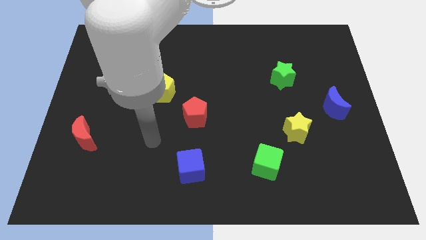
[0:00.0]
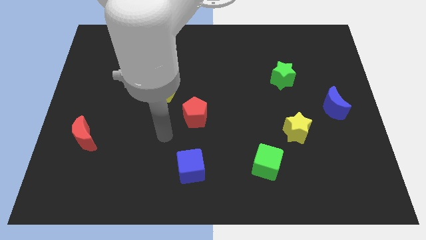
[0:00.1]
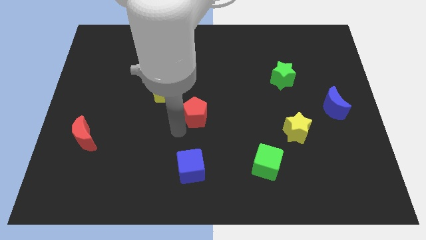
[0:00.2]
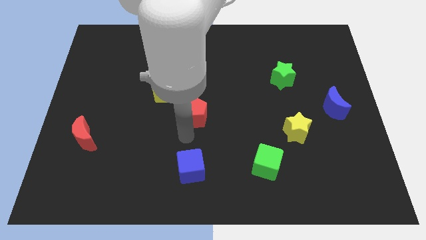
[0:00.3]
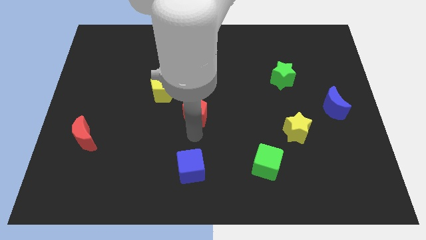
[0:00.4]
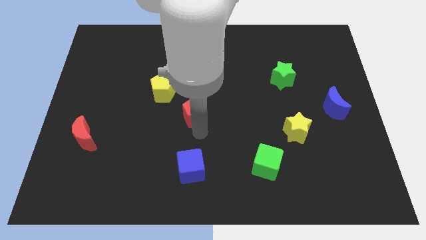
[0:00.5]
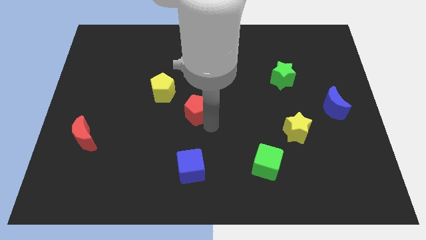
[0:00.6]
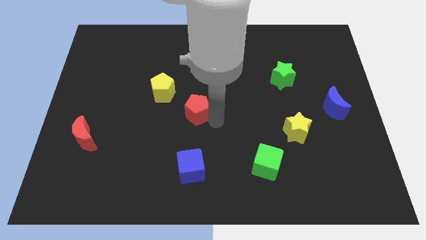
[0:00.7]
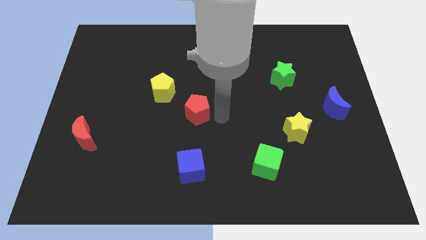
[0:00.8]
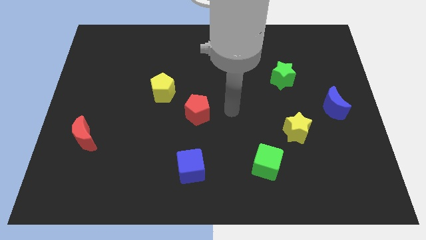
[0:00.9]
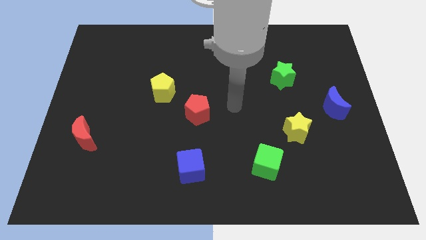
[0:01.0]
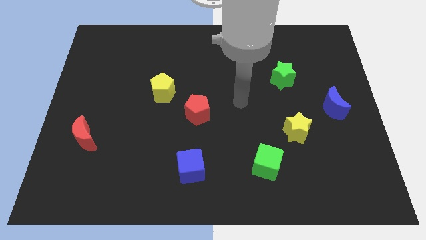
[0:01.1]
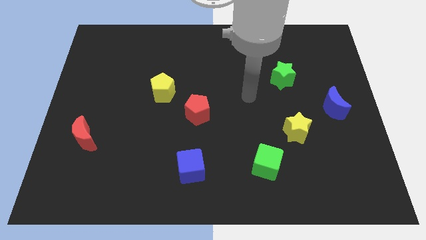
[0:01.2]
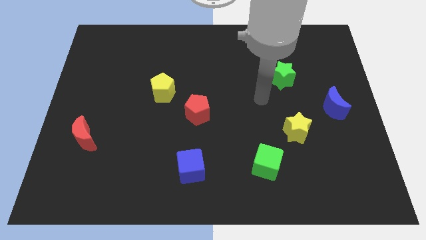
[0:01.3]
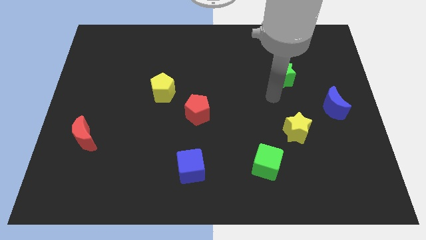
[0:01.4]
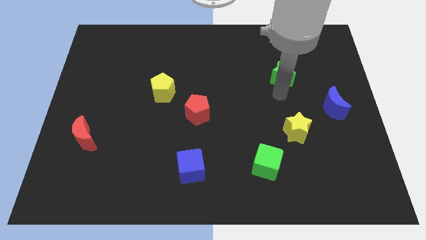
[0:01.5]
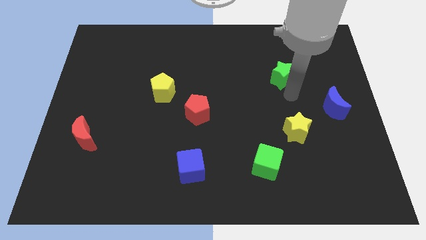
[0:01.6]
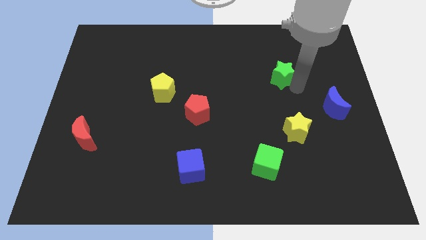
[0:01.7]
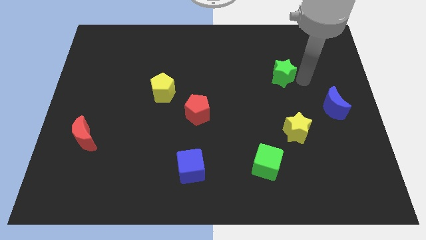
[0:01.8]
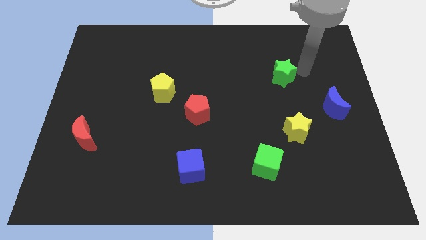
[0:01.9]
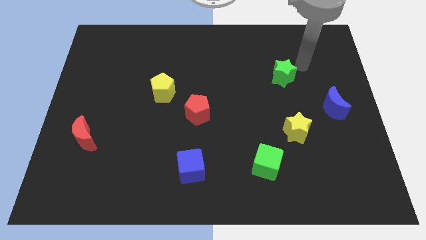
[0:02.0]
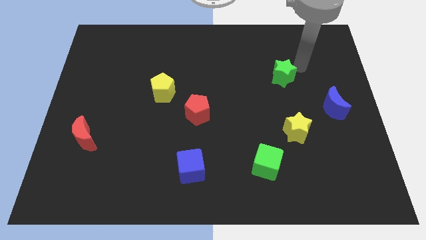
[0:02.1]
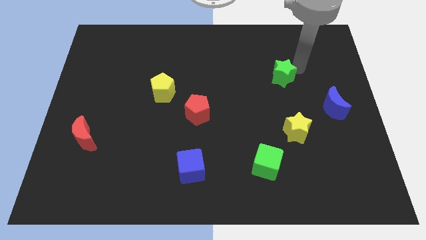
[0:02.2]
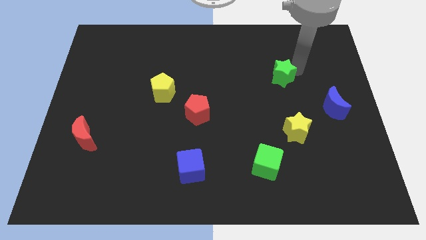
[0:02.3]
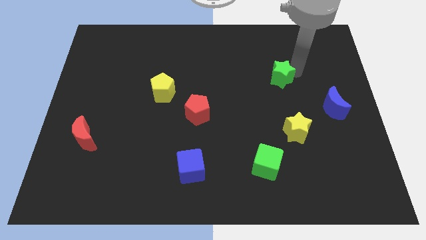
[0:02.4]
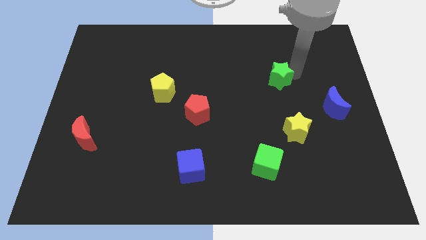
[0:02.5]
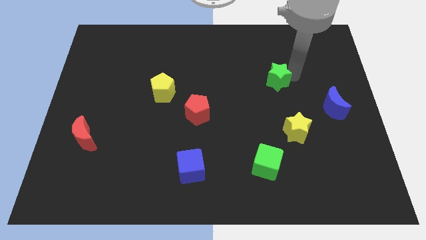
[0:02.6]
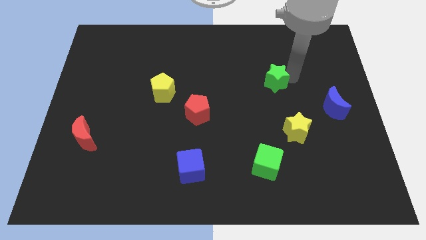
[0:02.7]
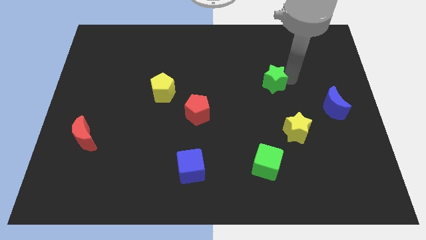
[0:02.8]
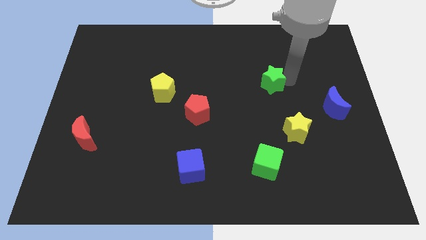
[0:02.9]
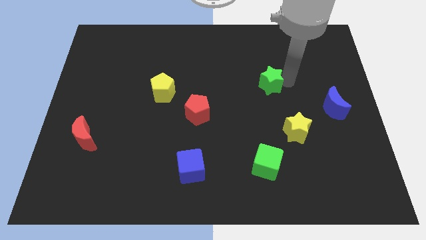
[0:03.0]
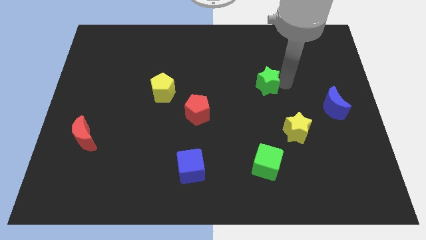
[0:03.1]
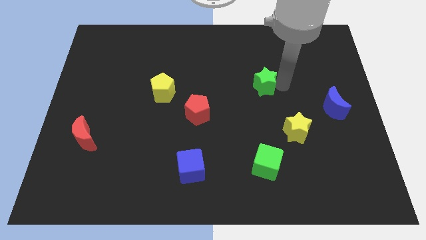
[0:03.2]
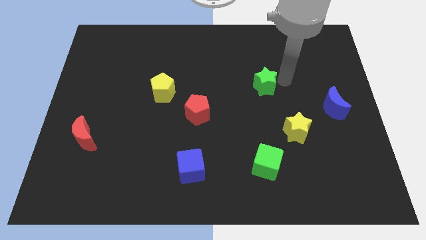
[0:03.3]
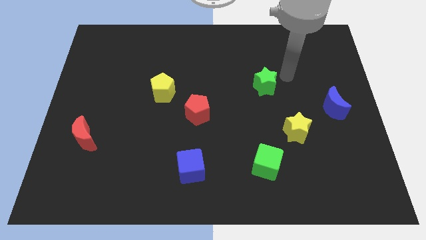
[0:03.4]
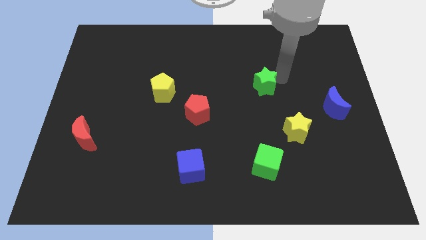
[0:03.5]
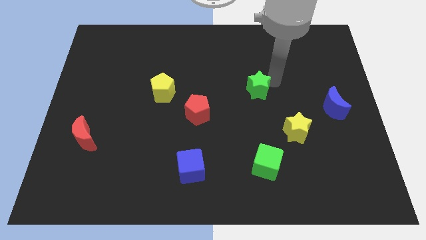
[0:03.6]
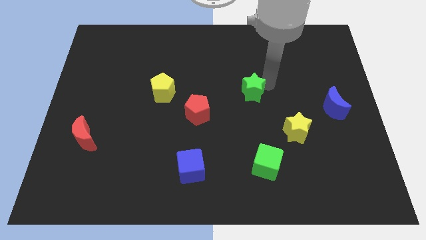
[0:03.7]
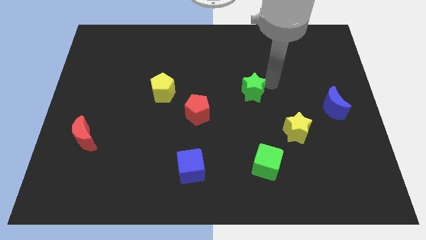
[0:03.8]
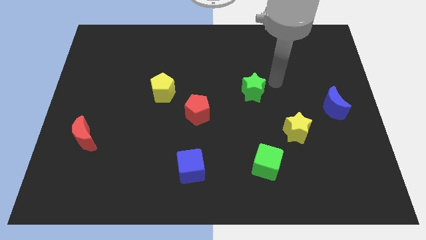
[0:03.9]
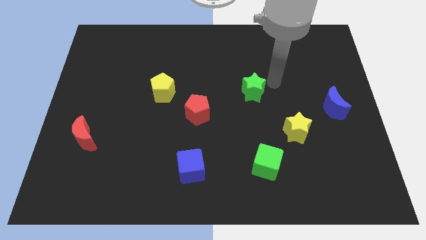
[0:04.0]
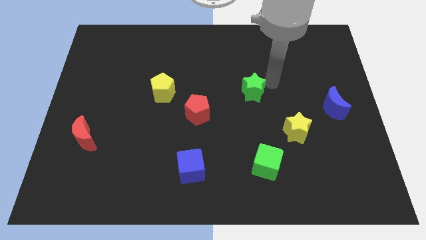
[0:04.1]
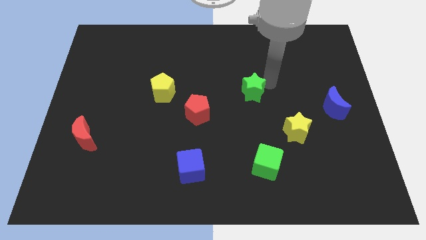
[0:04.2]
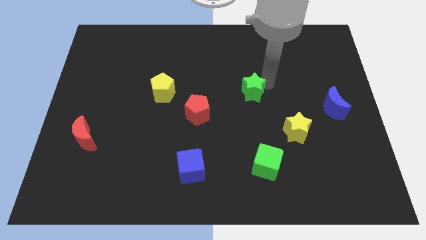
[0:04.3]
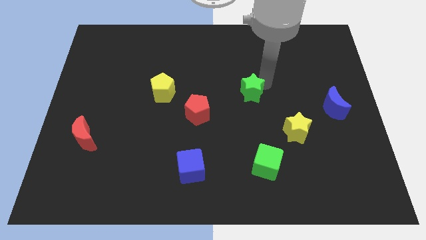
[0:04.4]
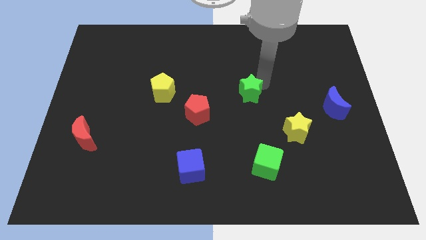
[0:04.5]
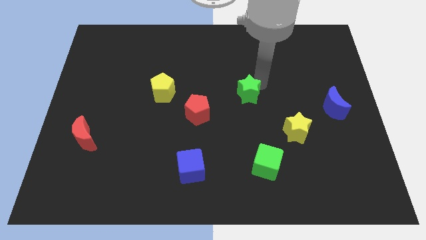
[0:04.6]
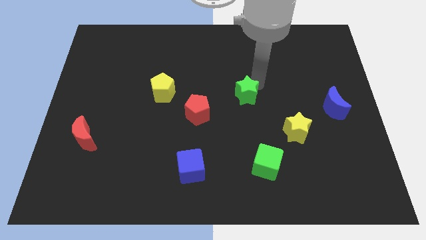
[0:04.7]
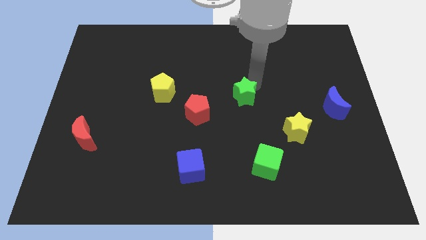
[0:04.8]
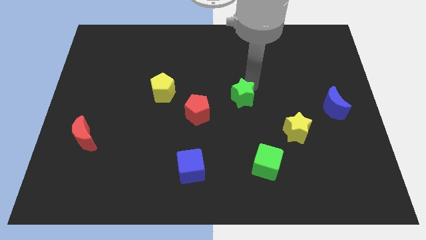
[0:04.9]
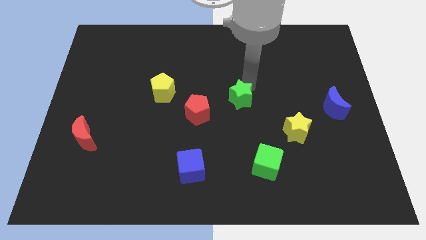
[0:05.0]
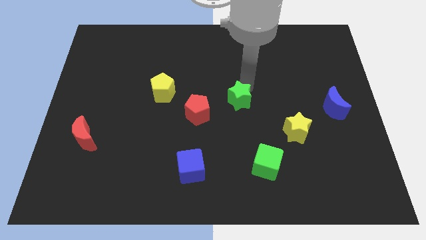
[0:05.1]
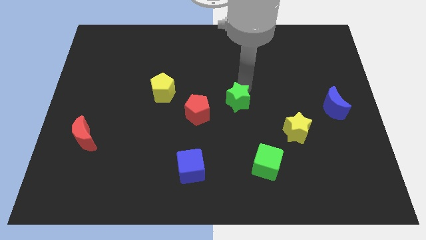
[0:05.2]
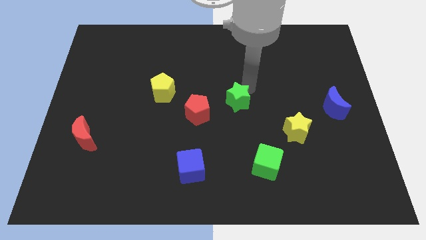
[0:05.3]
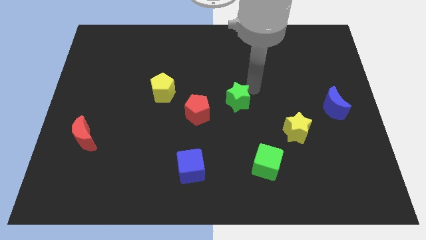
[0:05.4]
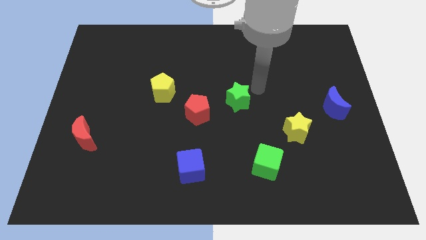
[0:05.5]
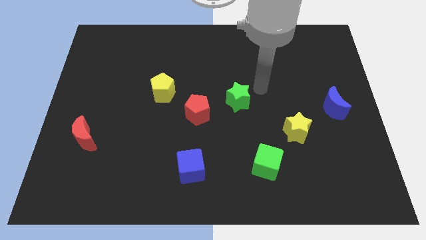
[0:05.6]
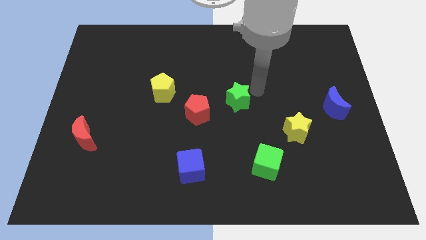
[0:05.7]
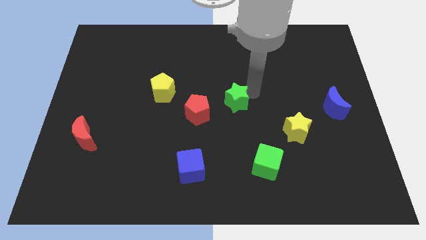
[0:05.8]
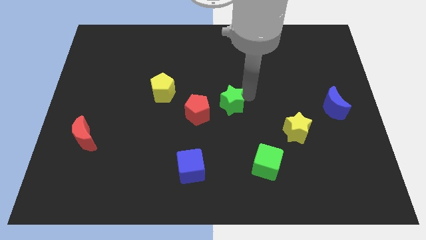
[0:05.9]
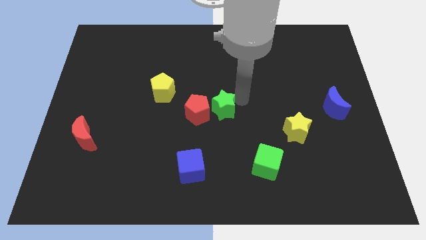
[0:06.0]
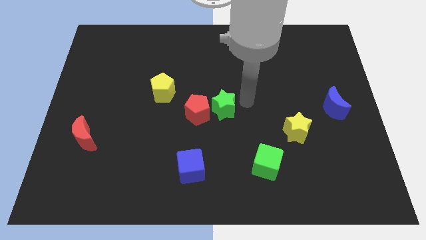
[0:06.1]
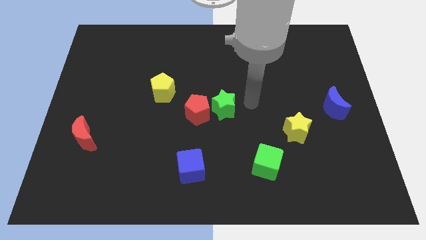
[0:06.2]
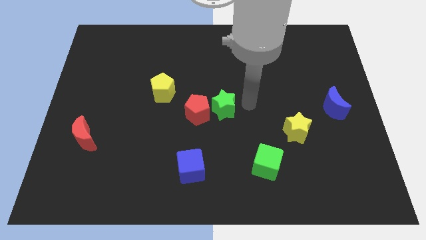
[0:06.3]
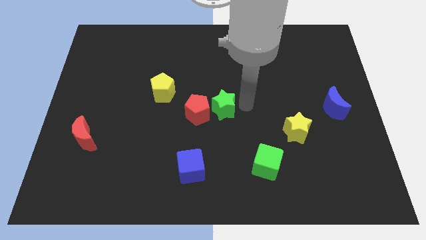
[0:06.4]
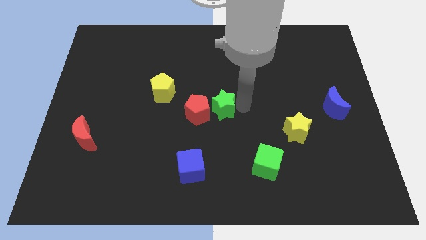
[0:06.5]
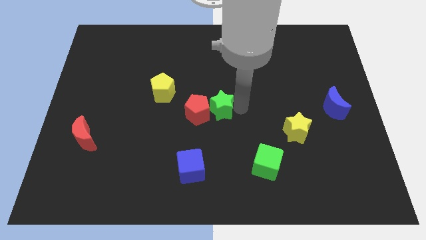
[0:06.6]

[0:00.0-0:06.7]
slide the green star to the red pentagon

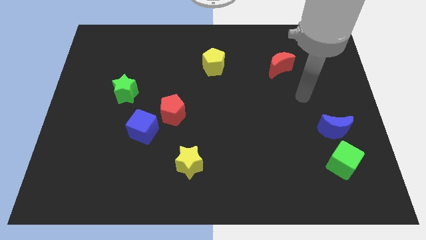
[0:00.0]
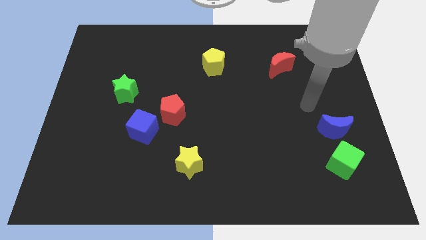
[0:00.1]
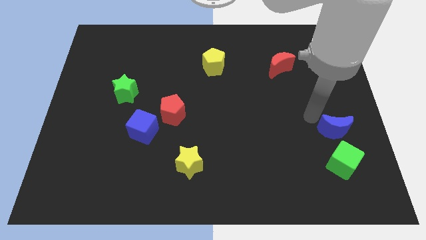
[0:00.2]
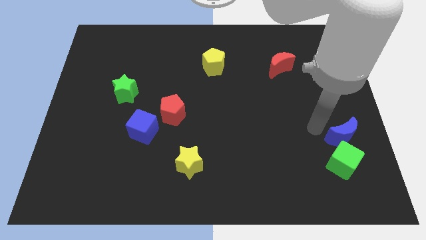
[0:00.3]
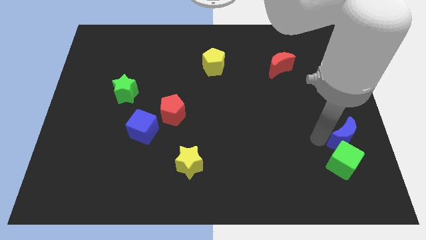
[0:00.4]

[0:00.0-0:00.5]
put the green cube to the blue moon

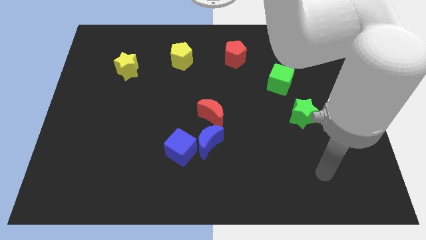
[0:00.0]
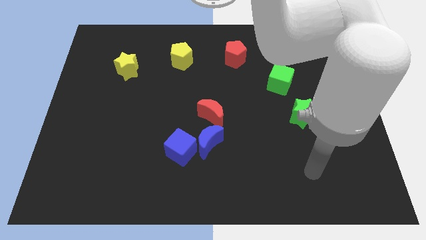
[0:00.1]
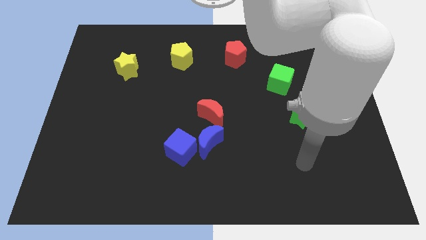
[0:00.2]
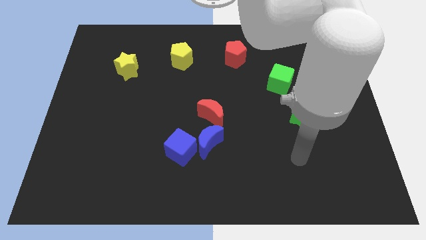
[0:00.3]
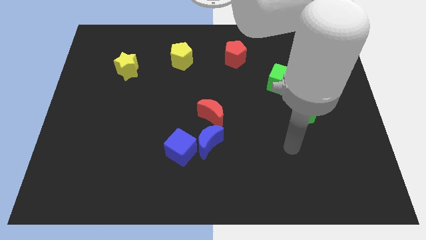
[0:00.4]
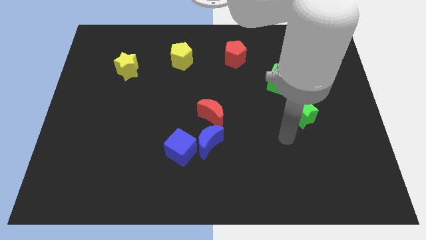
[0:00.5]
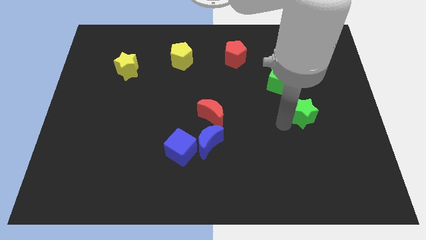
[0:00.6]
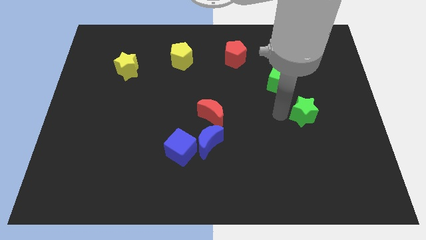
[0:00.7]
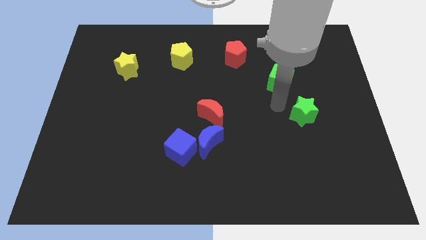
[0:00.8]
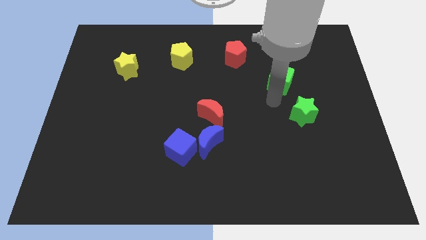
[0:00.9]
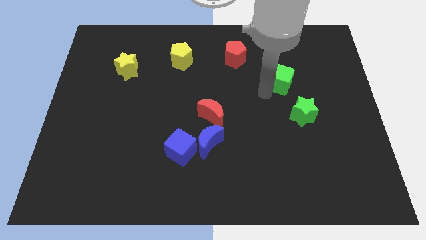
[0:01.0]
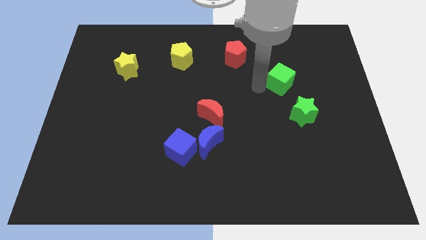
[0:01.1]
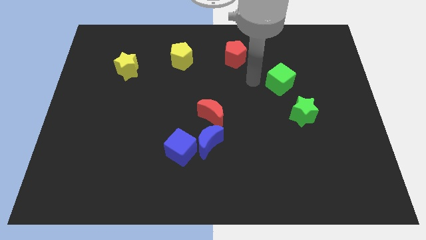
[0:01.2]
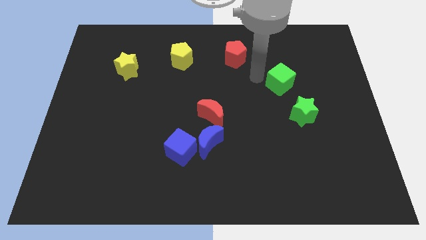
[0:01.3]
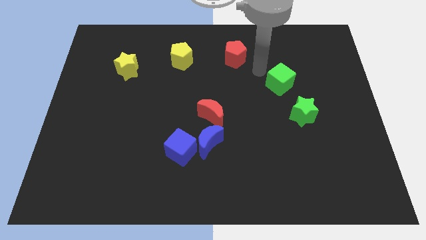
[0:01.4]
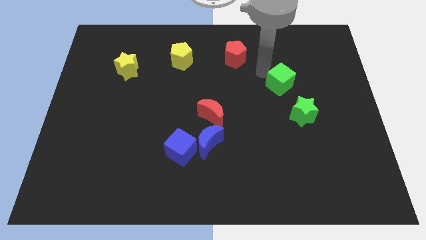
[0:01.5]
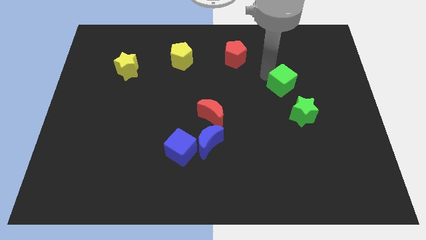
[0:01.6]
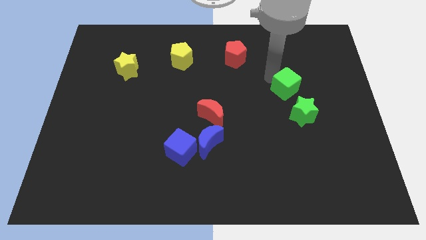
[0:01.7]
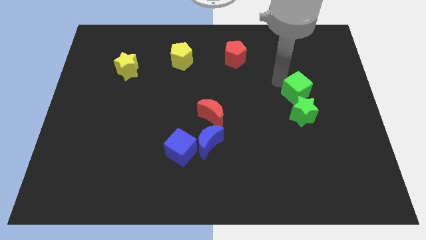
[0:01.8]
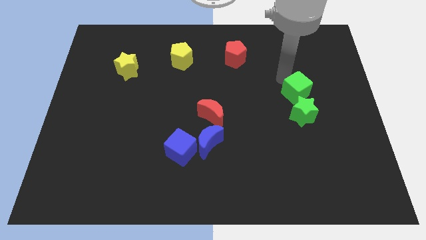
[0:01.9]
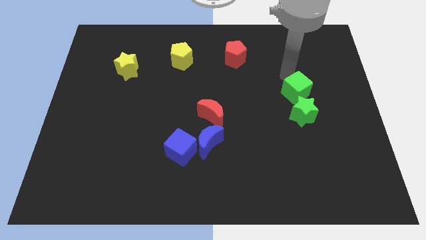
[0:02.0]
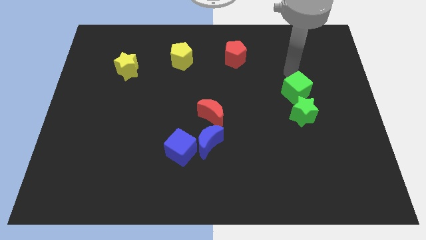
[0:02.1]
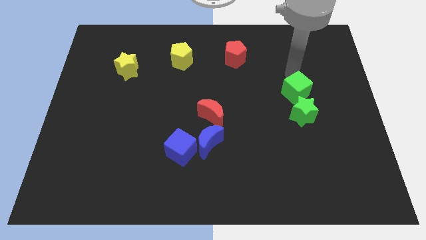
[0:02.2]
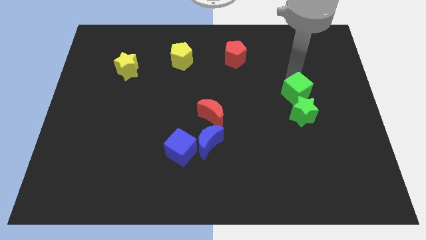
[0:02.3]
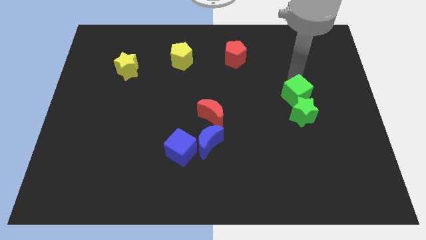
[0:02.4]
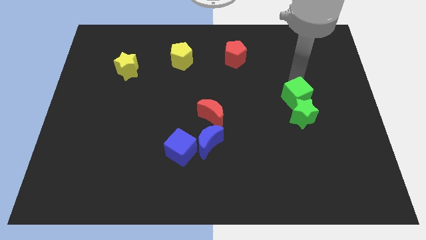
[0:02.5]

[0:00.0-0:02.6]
push the green cube next to the green star
